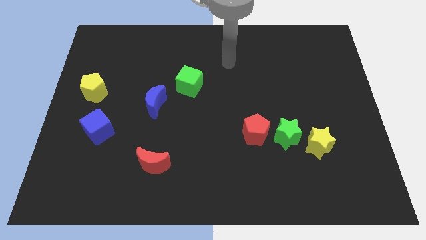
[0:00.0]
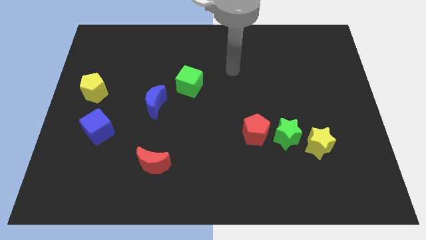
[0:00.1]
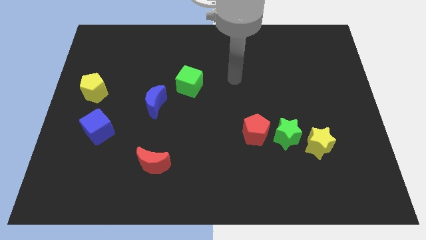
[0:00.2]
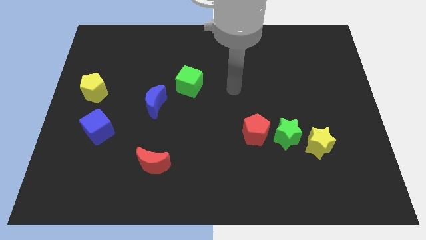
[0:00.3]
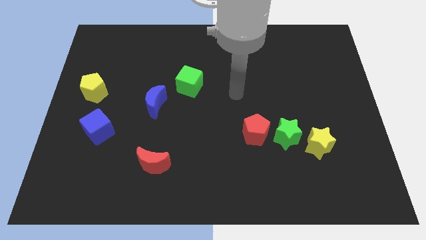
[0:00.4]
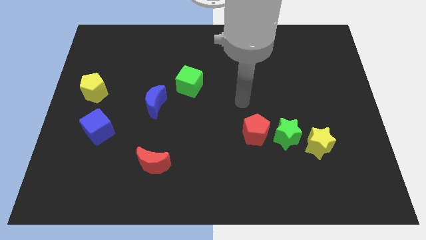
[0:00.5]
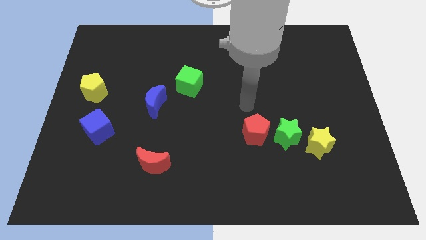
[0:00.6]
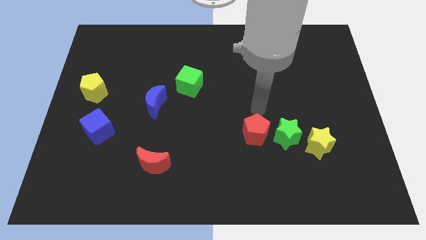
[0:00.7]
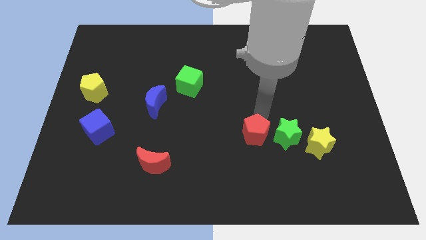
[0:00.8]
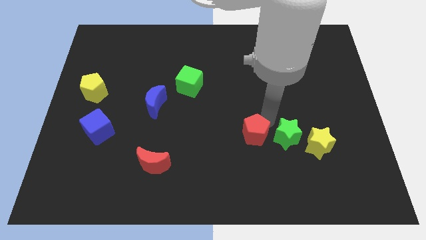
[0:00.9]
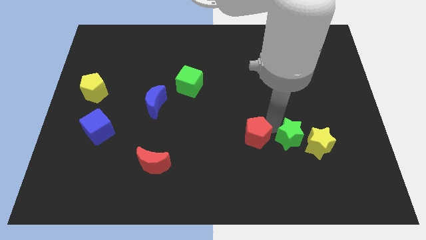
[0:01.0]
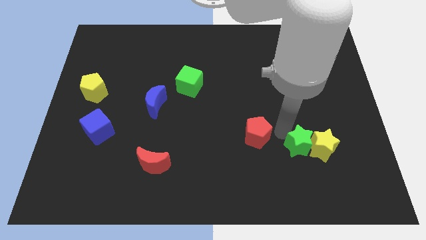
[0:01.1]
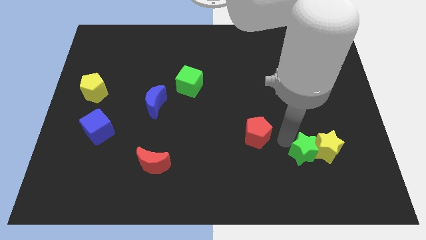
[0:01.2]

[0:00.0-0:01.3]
separate the red pentagon from the green star

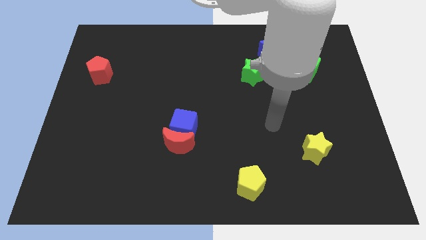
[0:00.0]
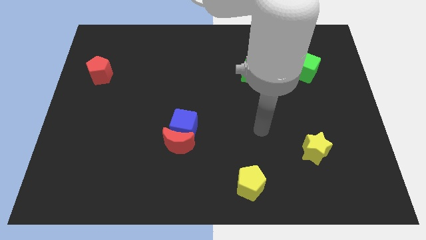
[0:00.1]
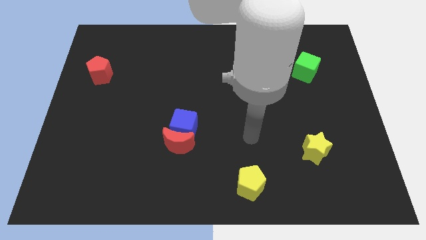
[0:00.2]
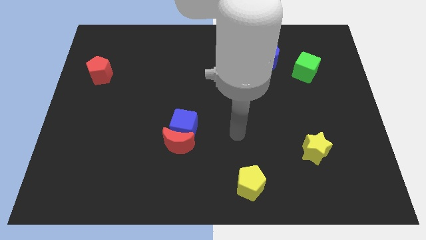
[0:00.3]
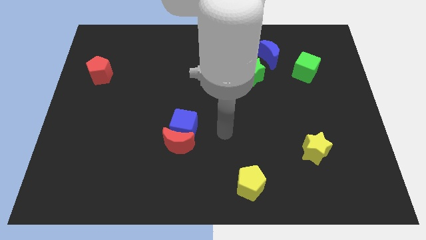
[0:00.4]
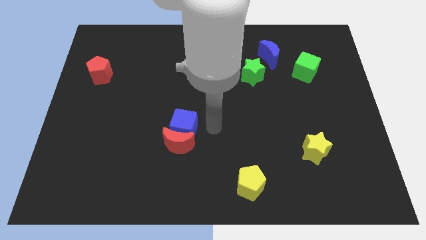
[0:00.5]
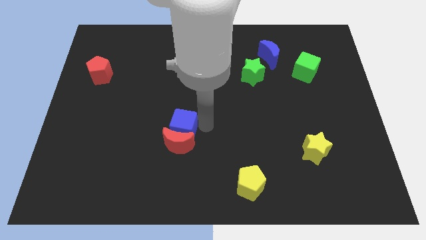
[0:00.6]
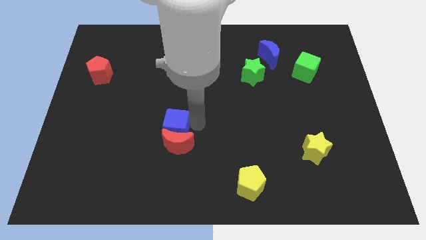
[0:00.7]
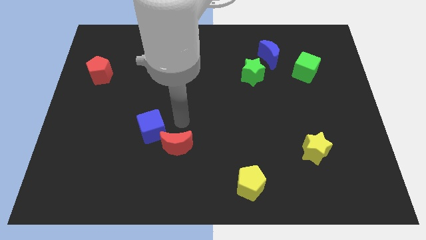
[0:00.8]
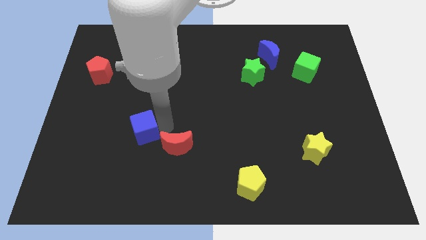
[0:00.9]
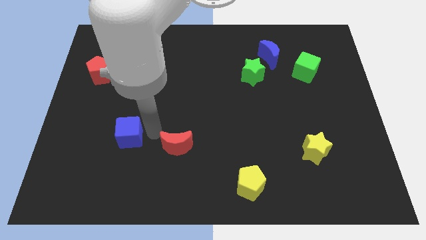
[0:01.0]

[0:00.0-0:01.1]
separate the red moon from the blue cube

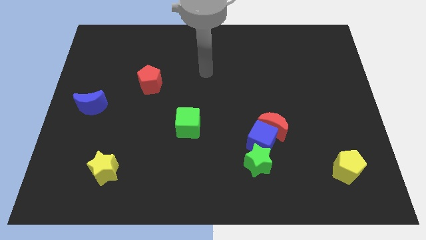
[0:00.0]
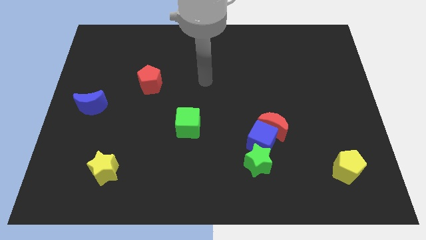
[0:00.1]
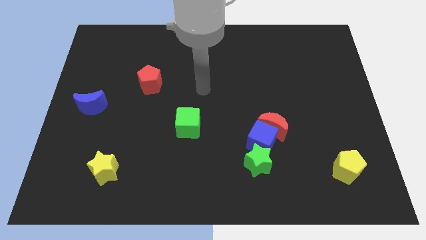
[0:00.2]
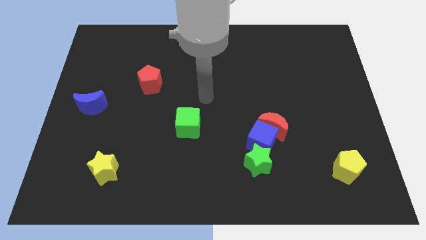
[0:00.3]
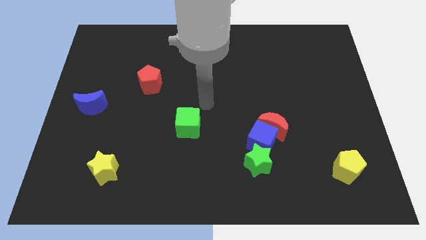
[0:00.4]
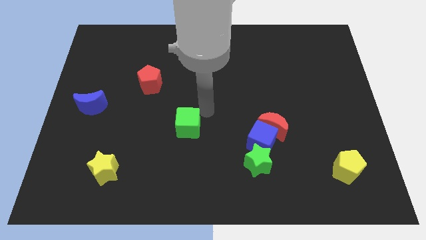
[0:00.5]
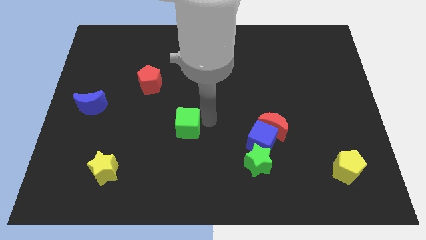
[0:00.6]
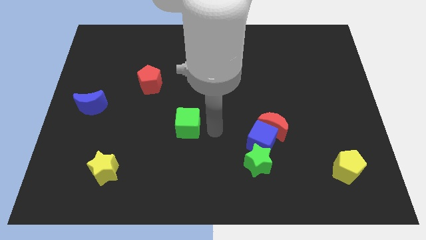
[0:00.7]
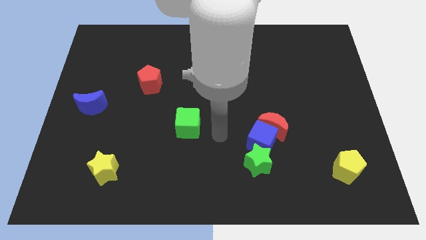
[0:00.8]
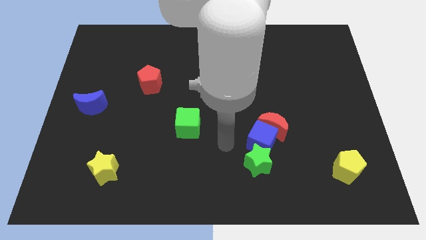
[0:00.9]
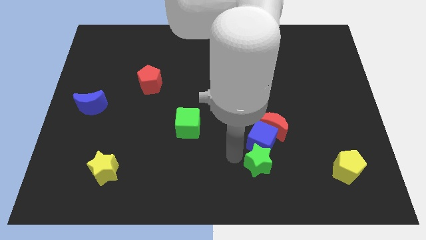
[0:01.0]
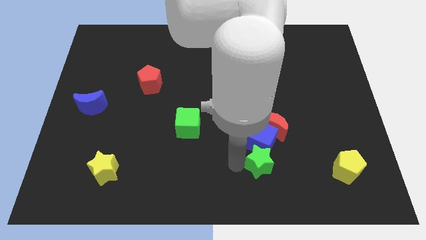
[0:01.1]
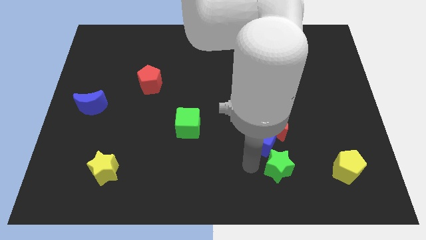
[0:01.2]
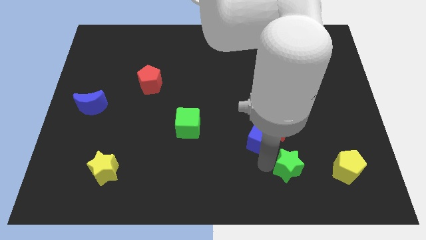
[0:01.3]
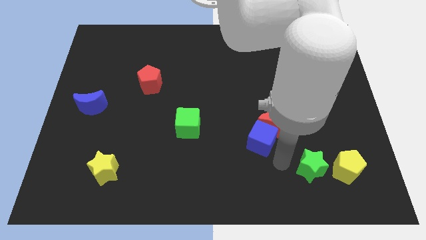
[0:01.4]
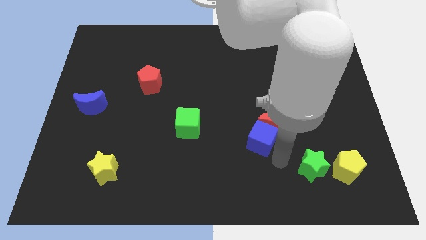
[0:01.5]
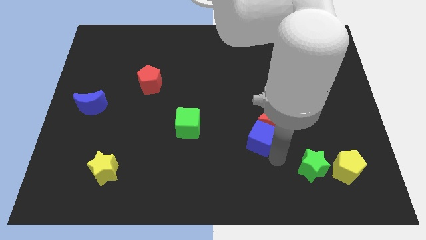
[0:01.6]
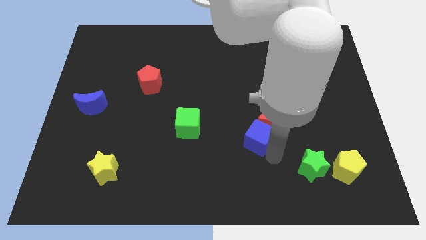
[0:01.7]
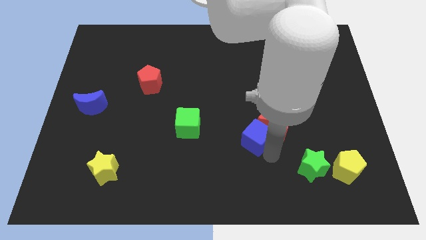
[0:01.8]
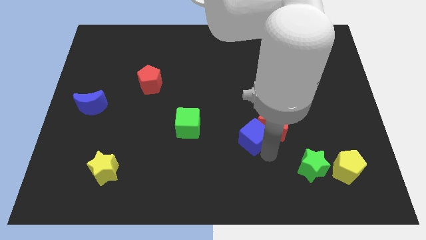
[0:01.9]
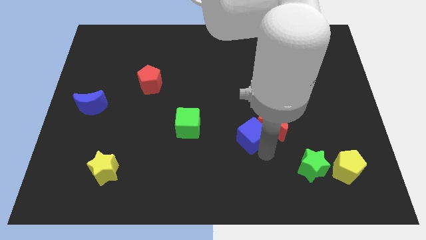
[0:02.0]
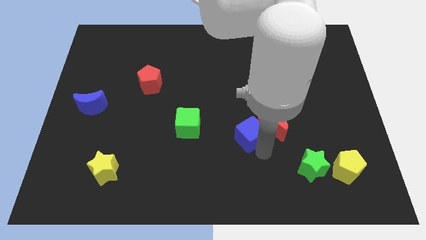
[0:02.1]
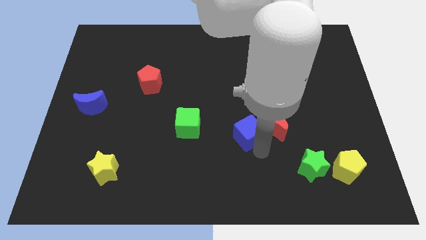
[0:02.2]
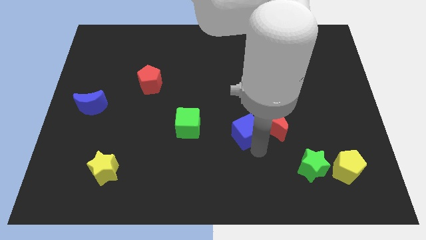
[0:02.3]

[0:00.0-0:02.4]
pull the blue cube apart from the red moon and green star

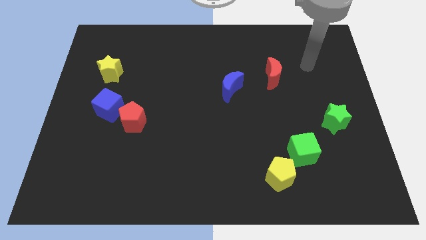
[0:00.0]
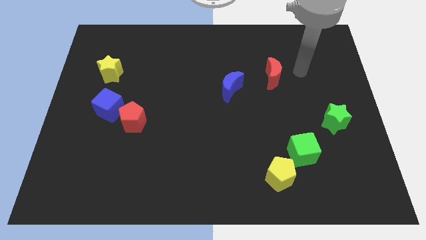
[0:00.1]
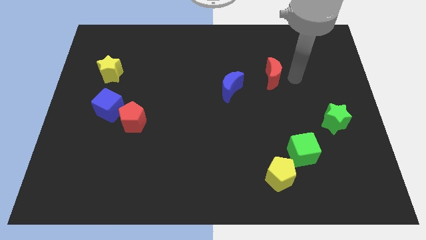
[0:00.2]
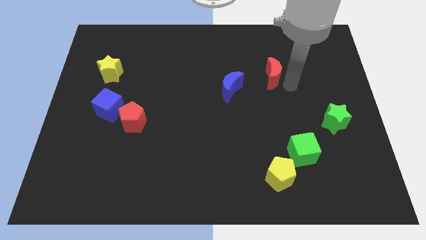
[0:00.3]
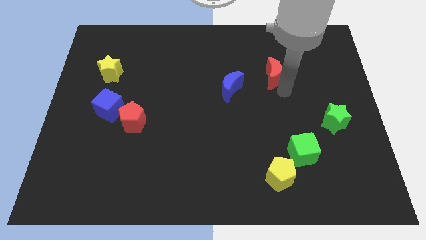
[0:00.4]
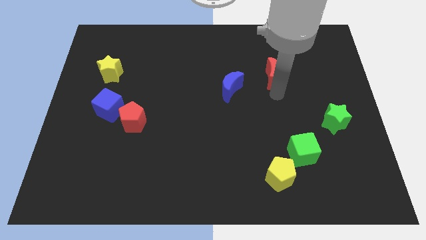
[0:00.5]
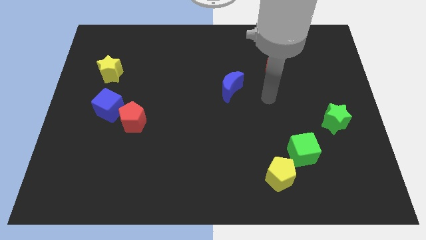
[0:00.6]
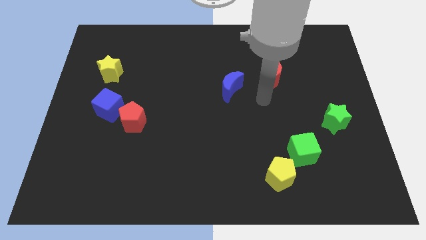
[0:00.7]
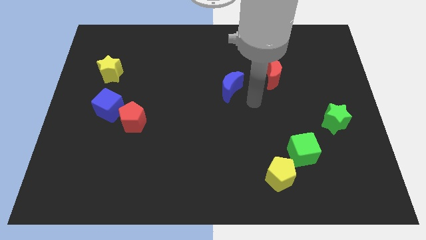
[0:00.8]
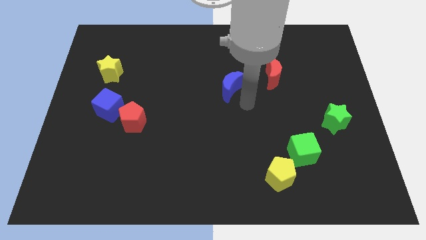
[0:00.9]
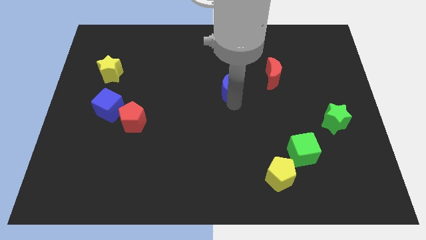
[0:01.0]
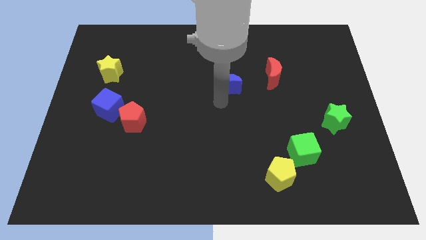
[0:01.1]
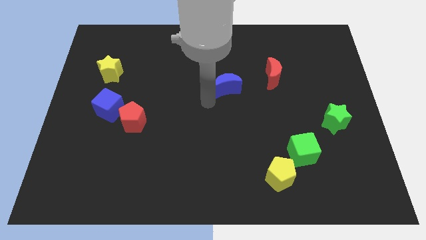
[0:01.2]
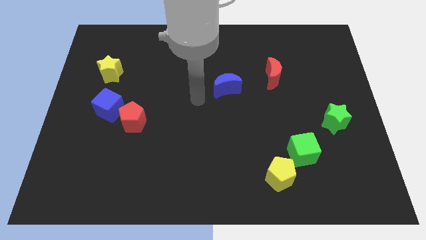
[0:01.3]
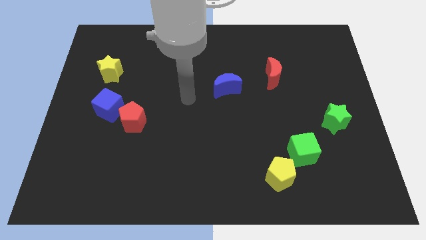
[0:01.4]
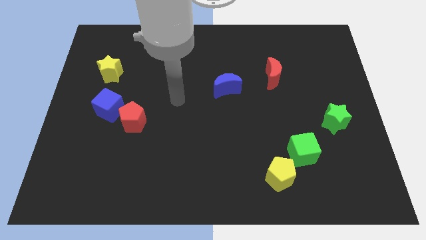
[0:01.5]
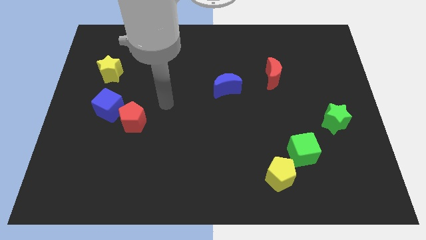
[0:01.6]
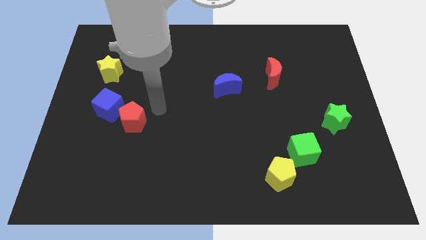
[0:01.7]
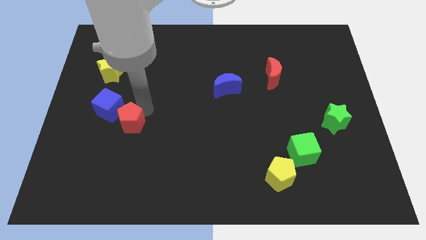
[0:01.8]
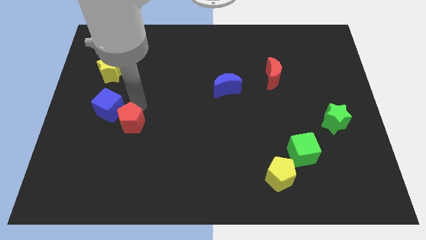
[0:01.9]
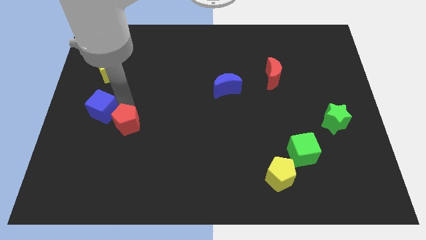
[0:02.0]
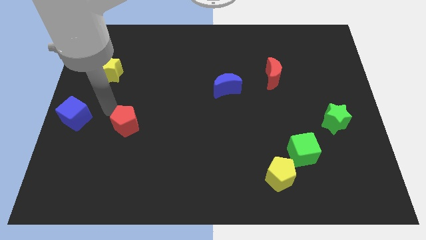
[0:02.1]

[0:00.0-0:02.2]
pull the red pentagon apart from the blue cube

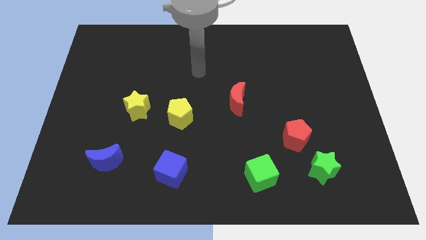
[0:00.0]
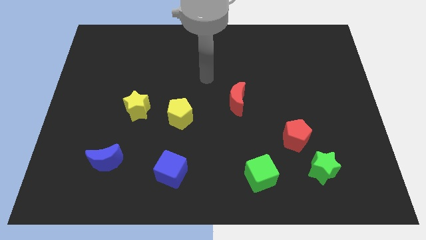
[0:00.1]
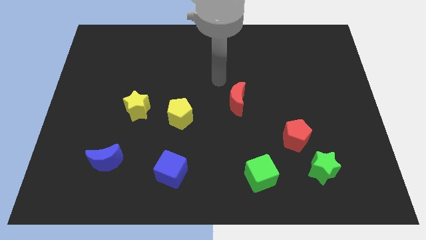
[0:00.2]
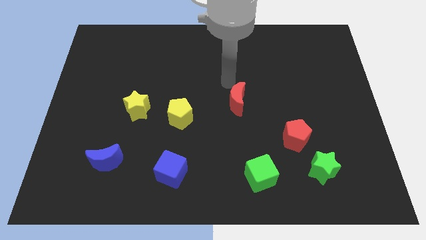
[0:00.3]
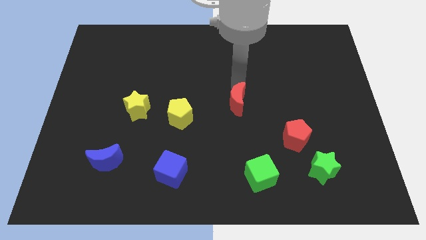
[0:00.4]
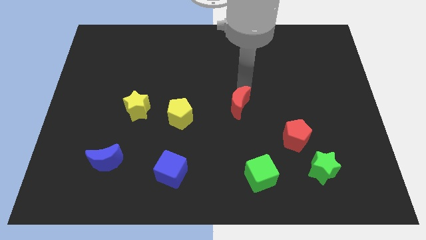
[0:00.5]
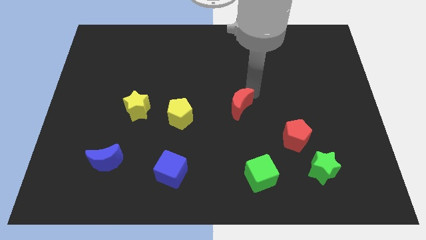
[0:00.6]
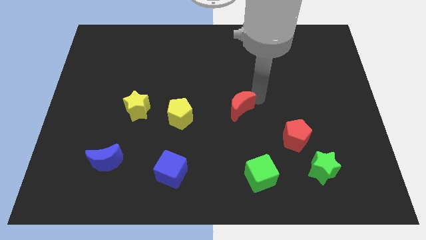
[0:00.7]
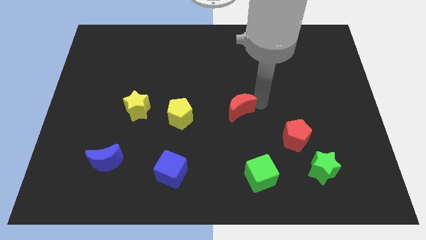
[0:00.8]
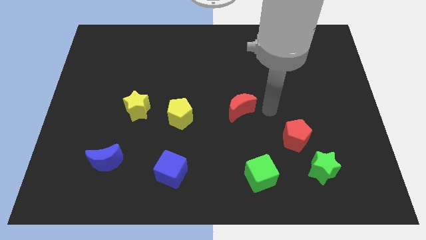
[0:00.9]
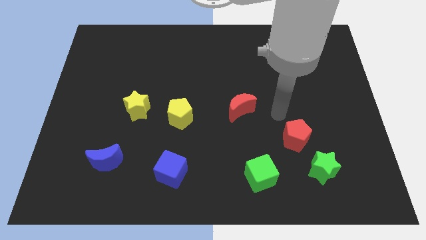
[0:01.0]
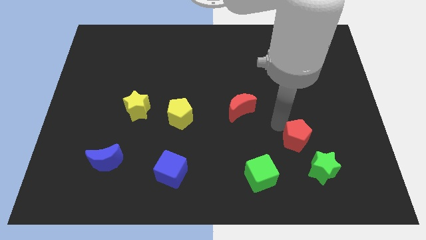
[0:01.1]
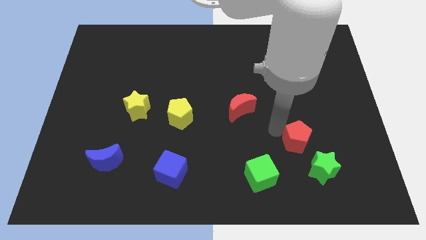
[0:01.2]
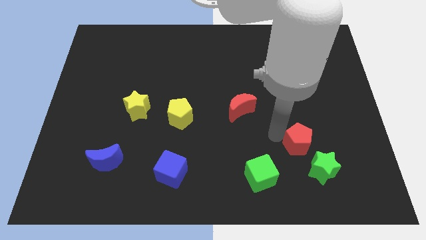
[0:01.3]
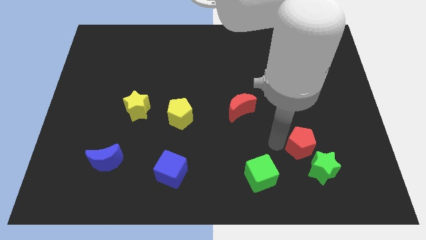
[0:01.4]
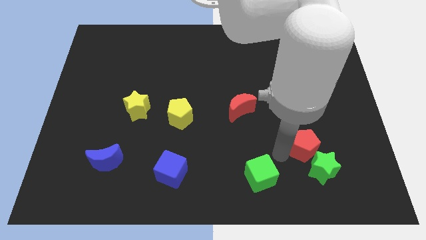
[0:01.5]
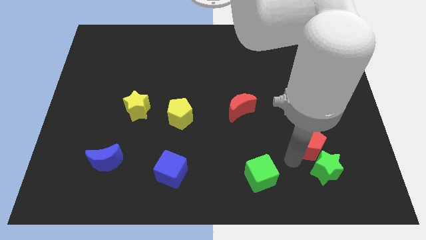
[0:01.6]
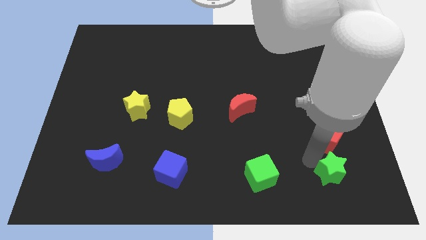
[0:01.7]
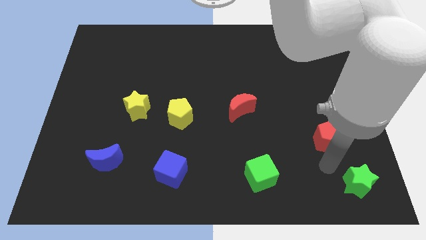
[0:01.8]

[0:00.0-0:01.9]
move the red pentagon away from the green star

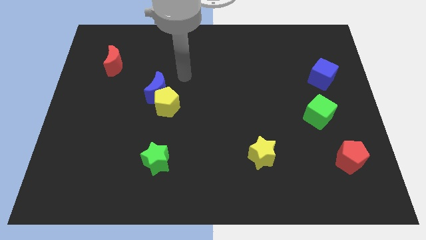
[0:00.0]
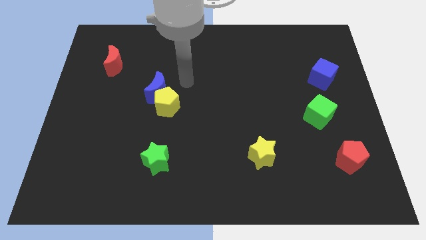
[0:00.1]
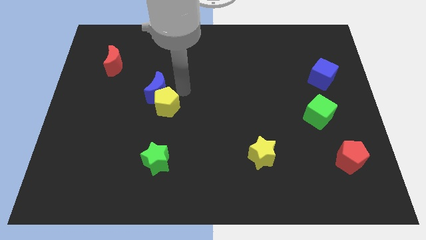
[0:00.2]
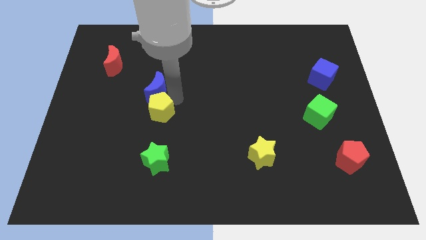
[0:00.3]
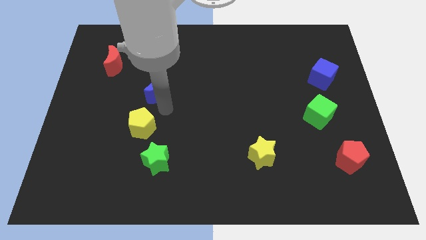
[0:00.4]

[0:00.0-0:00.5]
move the blue moon away from the yellow pentagon
